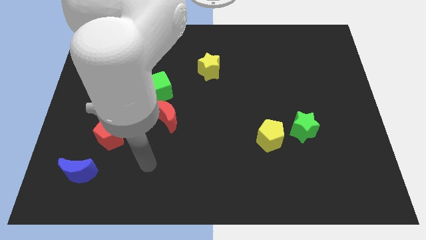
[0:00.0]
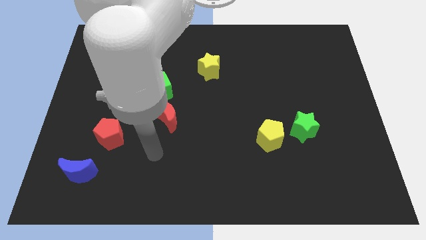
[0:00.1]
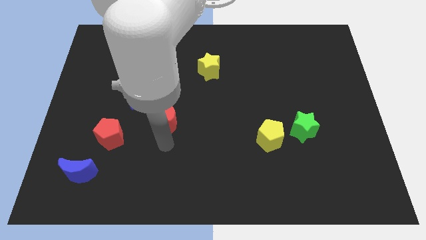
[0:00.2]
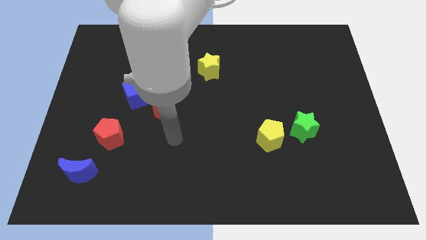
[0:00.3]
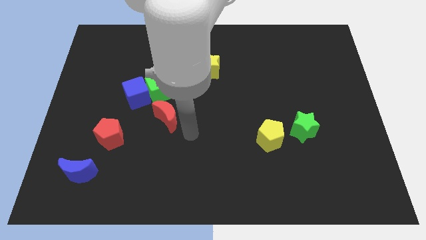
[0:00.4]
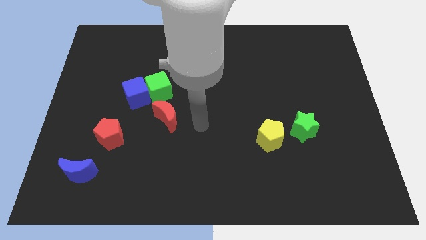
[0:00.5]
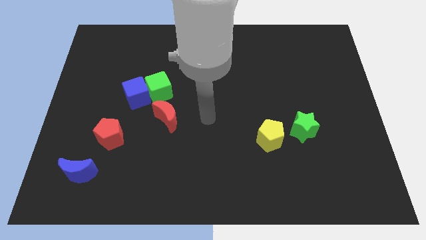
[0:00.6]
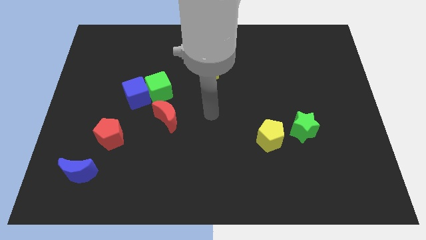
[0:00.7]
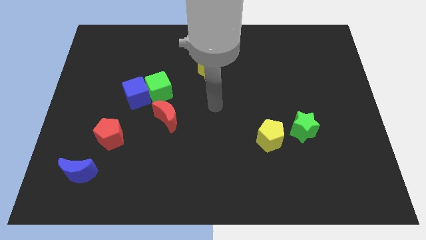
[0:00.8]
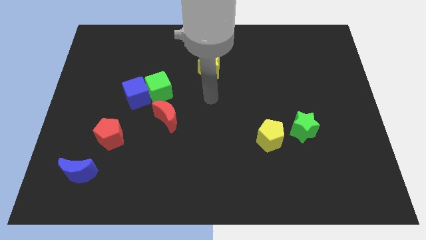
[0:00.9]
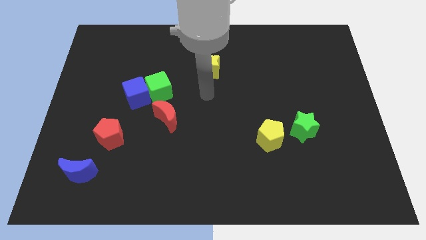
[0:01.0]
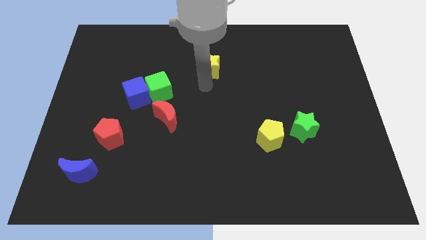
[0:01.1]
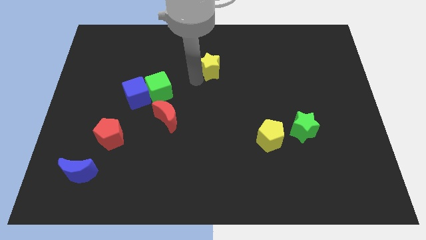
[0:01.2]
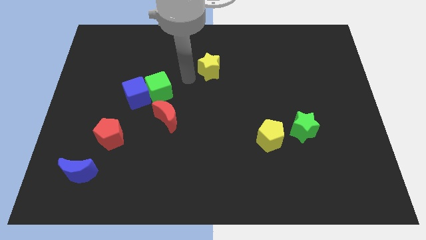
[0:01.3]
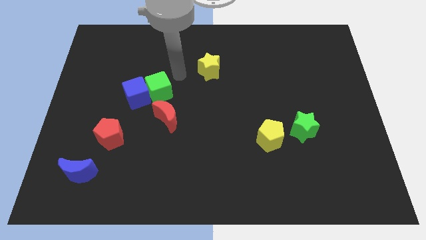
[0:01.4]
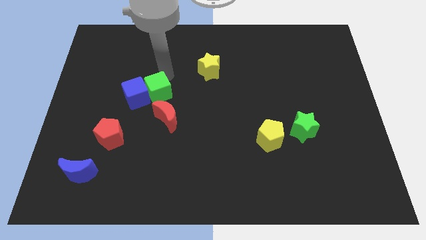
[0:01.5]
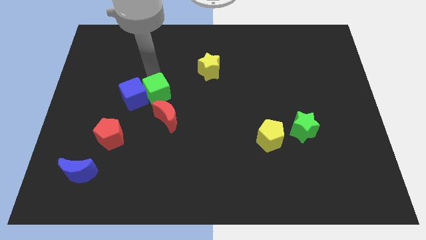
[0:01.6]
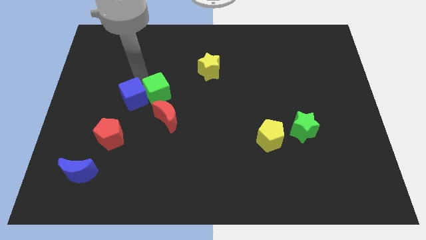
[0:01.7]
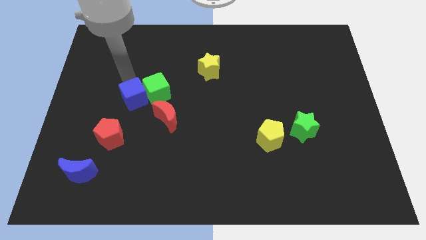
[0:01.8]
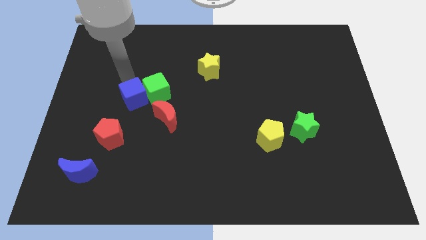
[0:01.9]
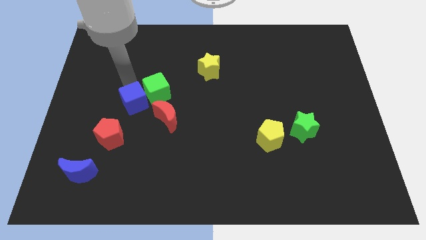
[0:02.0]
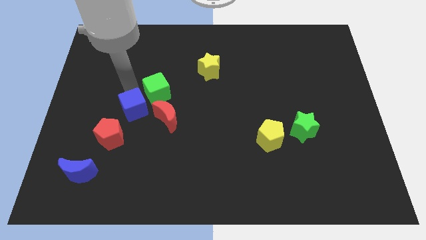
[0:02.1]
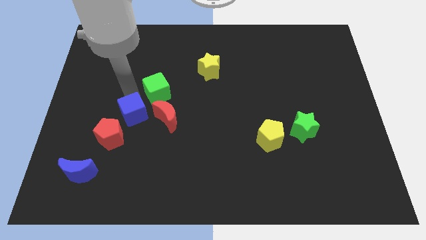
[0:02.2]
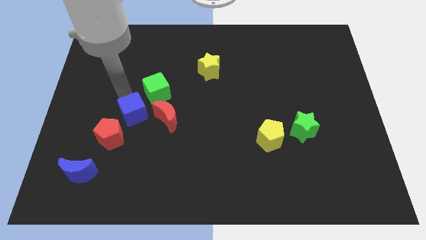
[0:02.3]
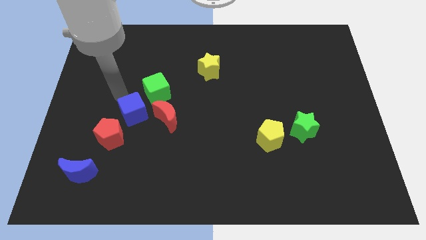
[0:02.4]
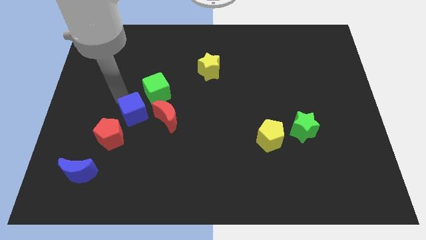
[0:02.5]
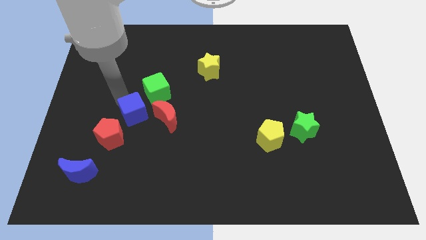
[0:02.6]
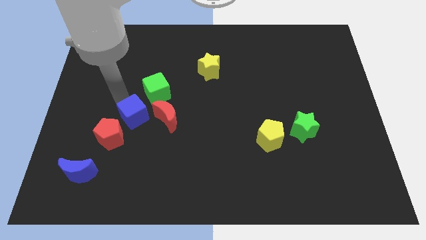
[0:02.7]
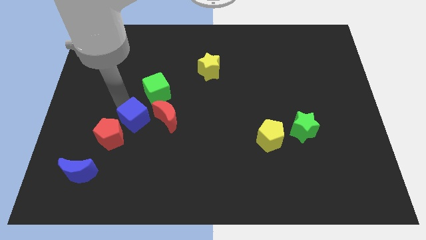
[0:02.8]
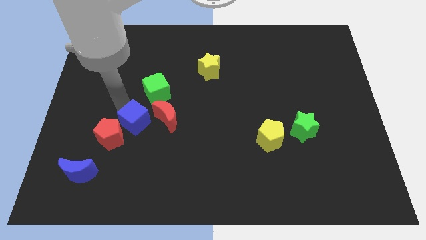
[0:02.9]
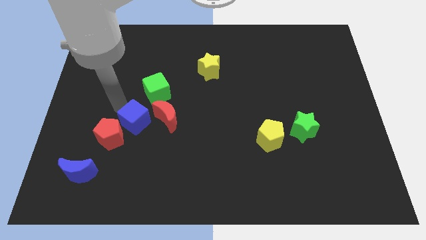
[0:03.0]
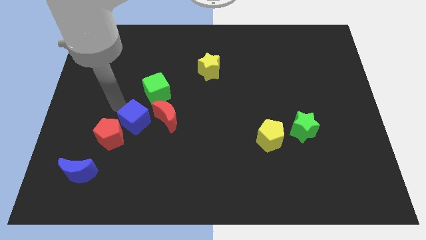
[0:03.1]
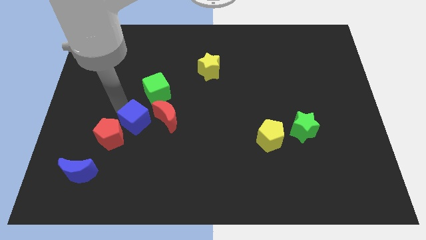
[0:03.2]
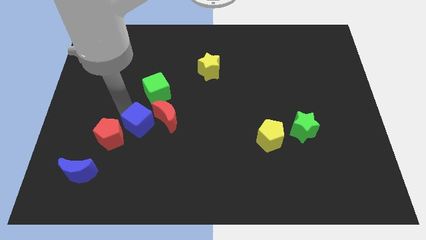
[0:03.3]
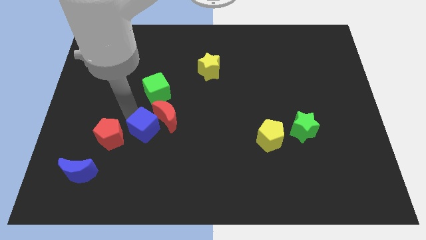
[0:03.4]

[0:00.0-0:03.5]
slightly slide the blue cube down and right

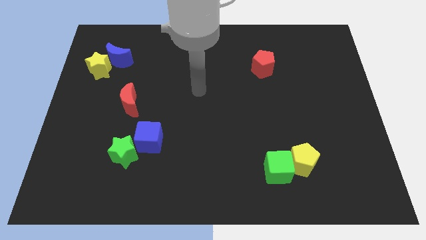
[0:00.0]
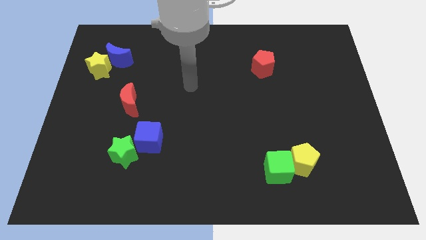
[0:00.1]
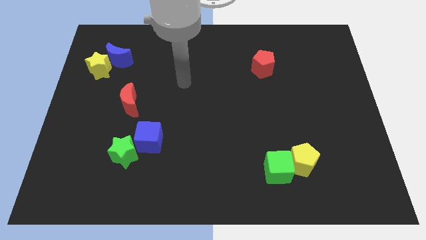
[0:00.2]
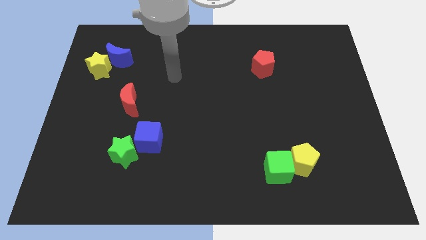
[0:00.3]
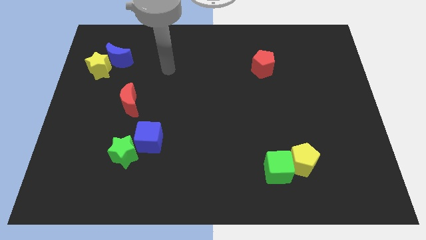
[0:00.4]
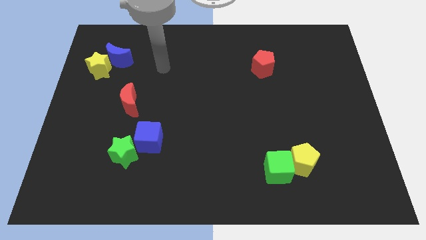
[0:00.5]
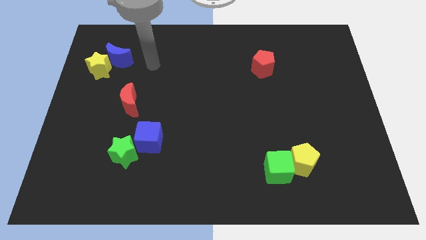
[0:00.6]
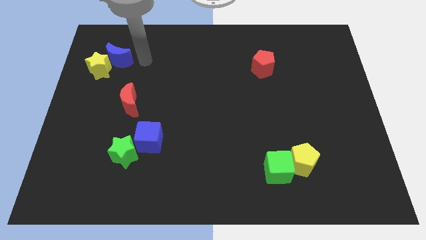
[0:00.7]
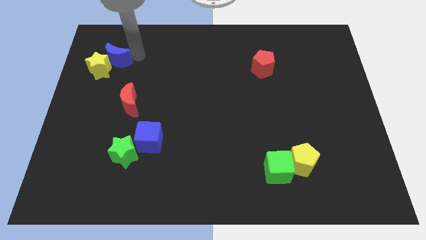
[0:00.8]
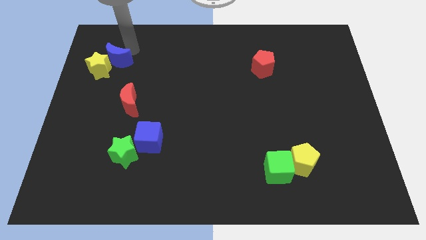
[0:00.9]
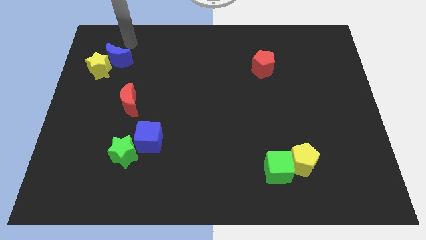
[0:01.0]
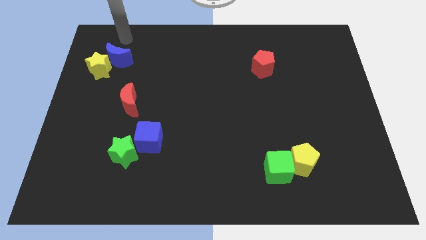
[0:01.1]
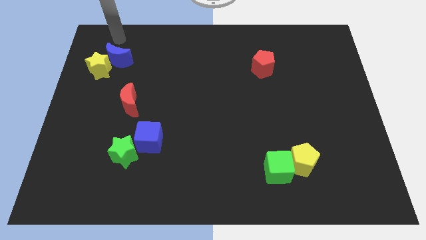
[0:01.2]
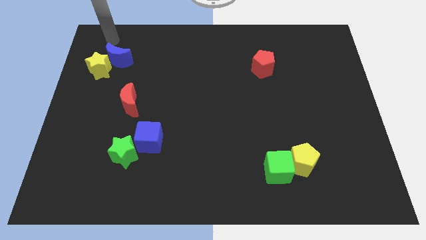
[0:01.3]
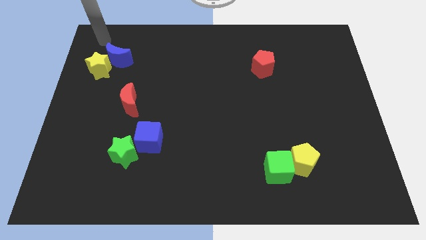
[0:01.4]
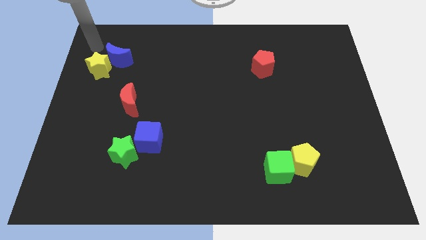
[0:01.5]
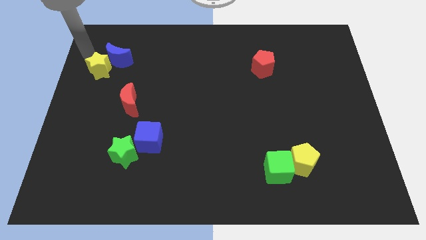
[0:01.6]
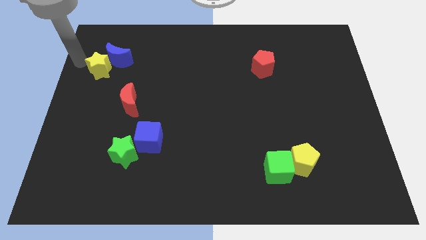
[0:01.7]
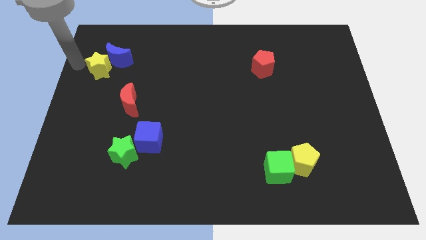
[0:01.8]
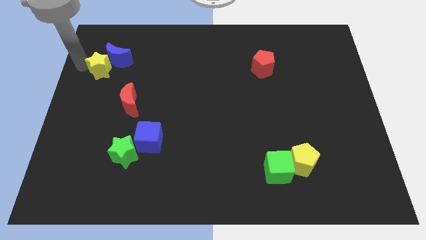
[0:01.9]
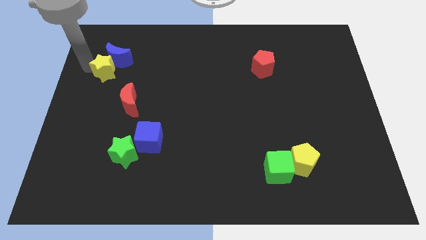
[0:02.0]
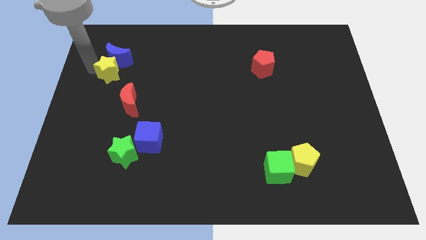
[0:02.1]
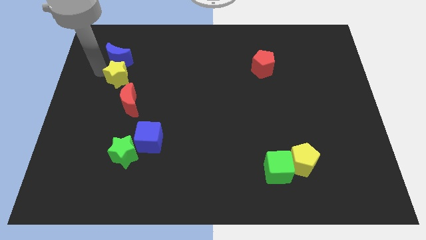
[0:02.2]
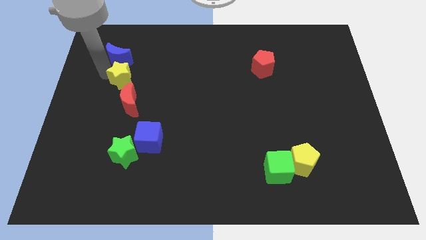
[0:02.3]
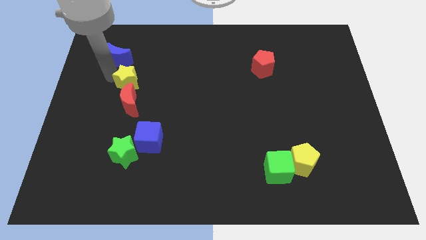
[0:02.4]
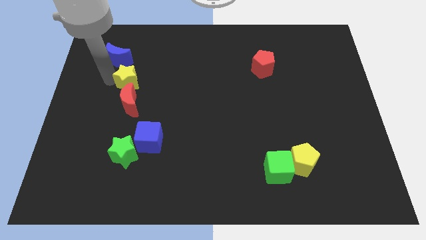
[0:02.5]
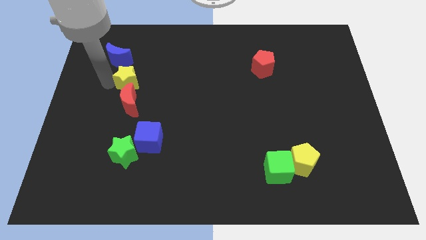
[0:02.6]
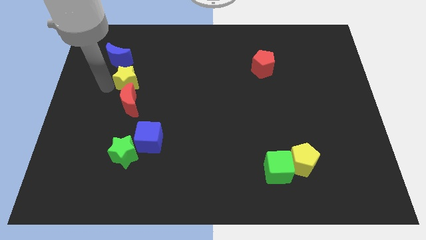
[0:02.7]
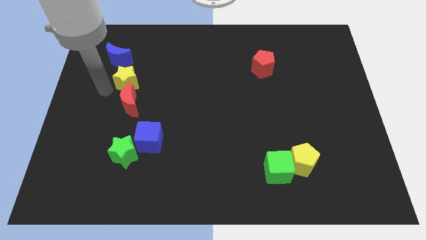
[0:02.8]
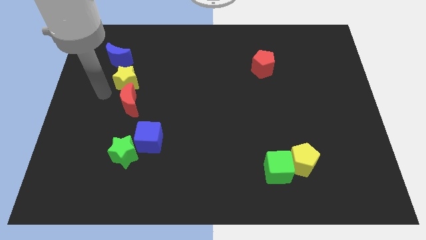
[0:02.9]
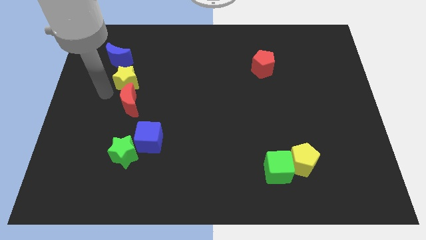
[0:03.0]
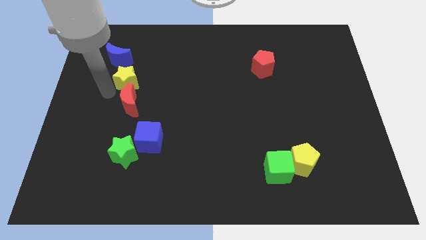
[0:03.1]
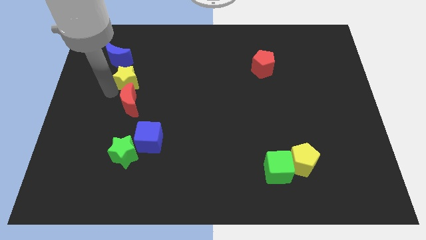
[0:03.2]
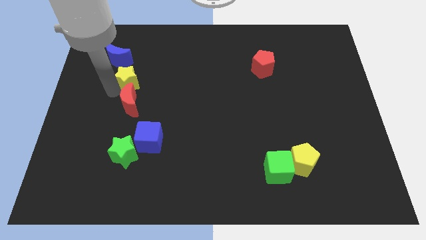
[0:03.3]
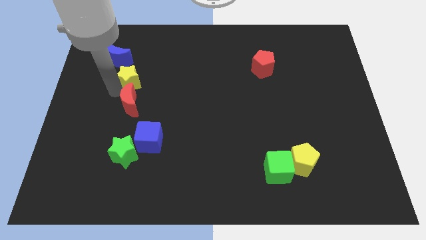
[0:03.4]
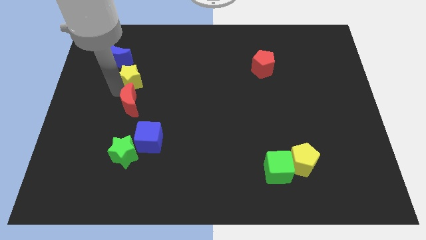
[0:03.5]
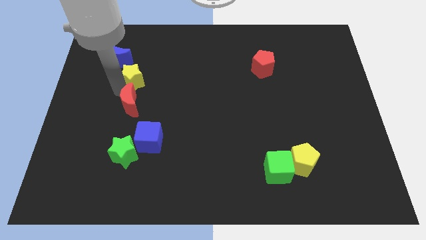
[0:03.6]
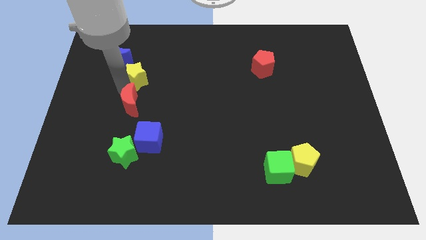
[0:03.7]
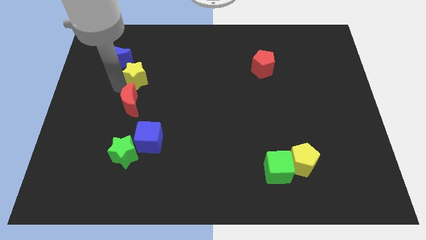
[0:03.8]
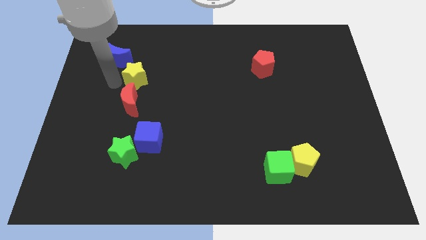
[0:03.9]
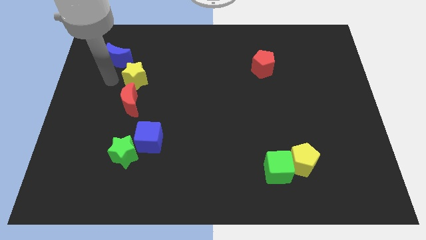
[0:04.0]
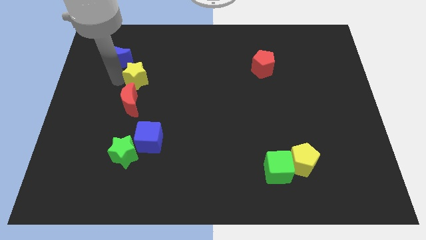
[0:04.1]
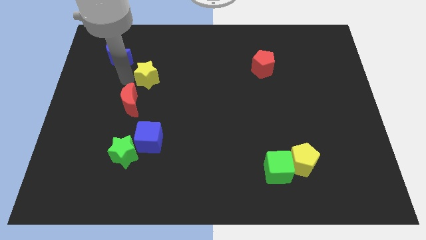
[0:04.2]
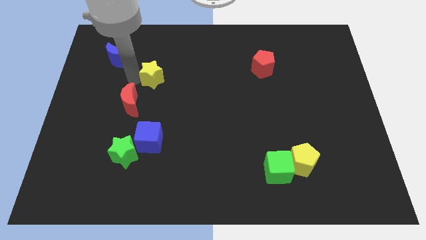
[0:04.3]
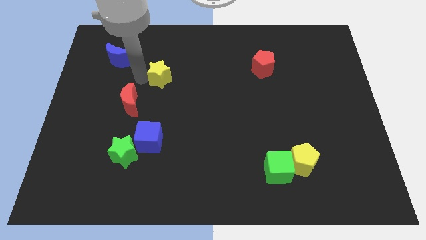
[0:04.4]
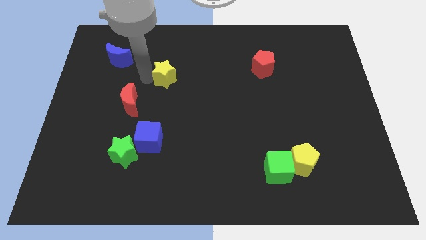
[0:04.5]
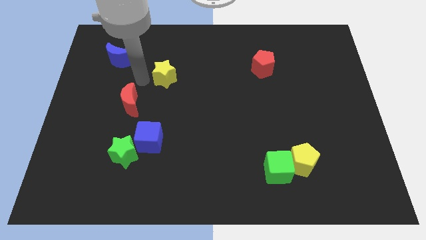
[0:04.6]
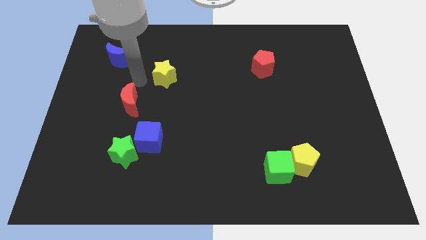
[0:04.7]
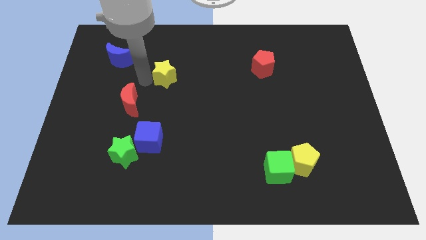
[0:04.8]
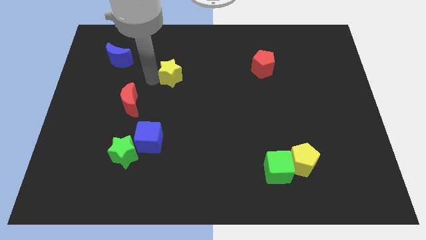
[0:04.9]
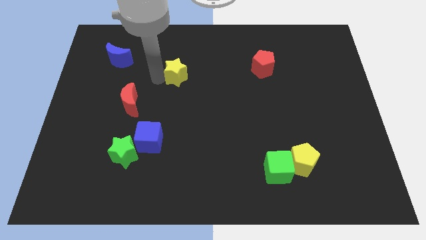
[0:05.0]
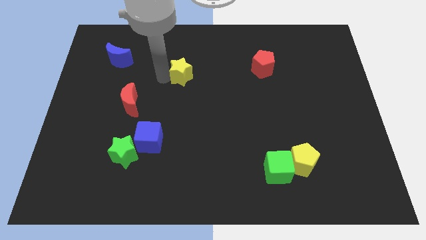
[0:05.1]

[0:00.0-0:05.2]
move the yellow star to the right
